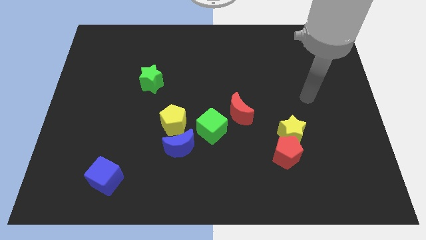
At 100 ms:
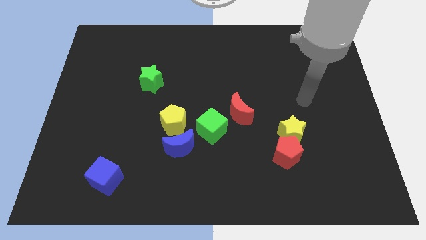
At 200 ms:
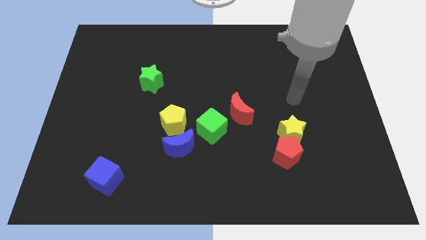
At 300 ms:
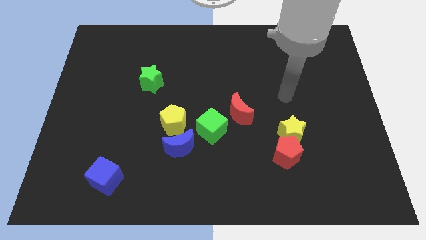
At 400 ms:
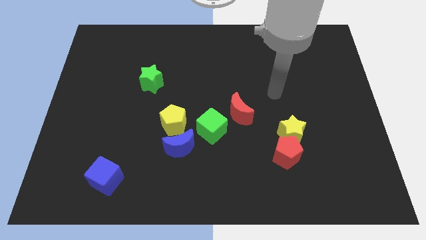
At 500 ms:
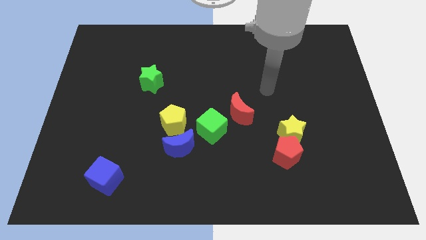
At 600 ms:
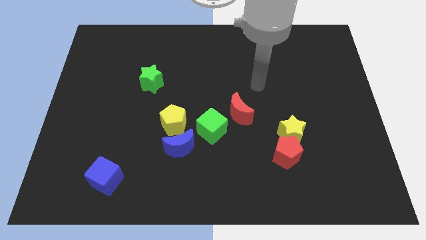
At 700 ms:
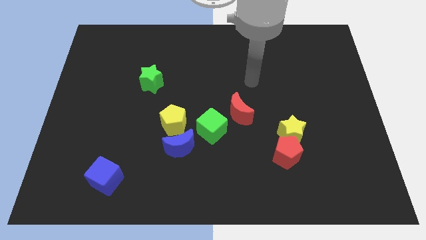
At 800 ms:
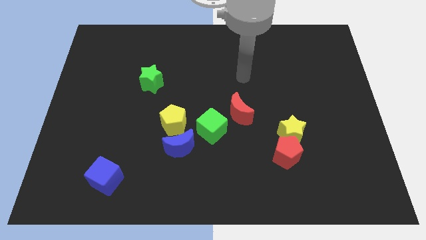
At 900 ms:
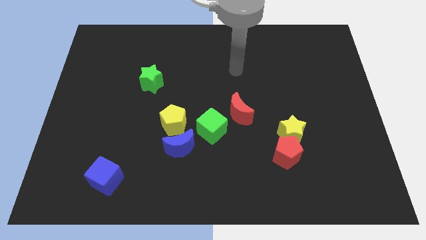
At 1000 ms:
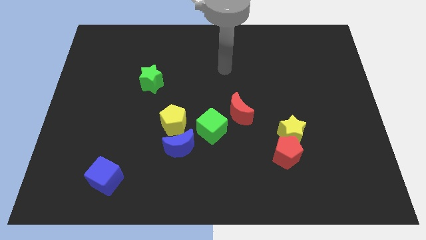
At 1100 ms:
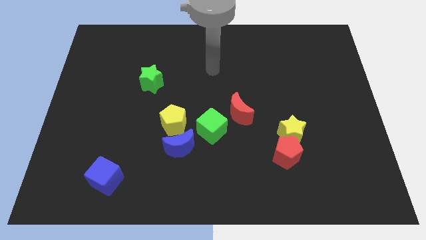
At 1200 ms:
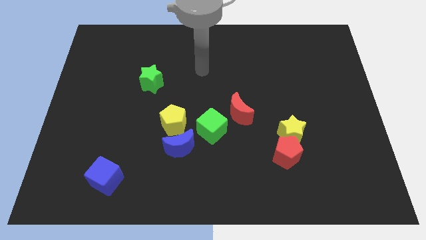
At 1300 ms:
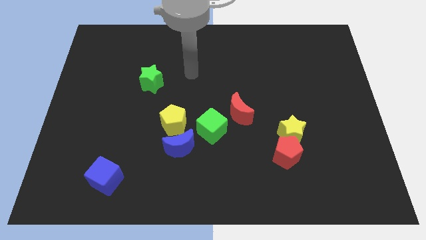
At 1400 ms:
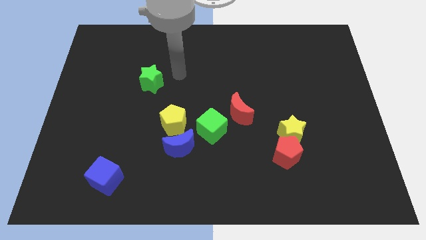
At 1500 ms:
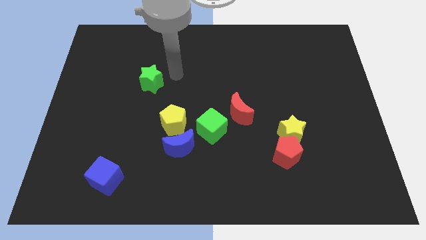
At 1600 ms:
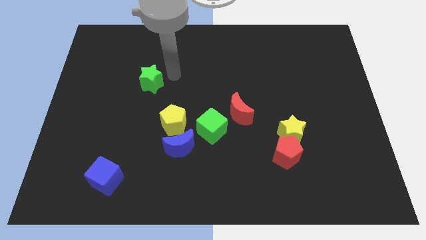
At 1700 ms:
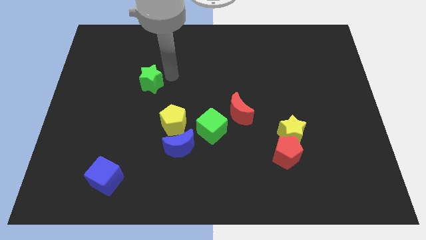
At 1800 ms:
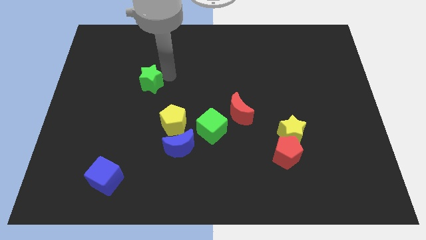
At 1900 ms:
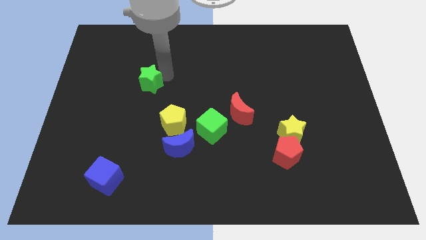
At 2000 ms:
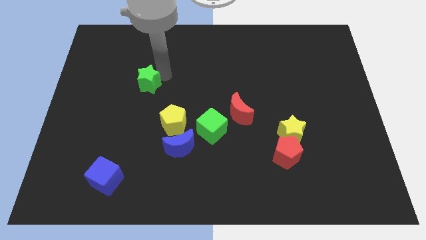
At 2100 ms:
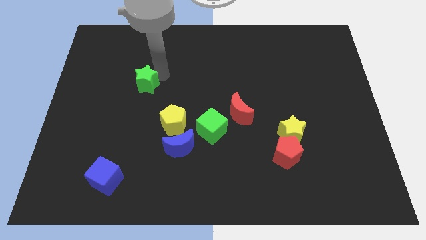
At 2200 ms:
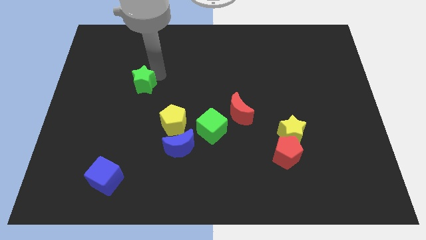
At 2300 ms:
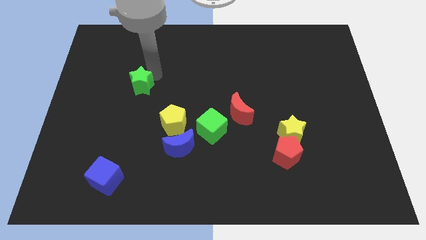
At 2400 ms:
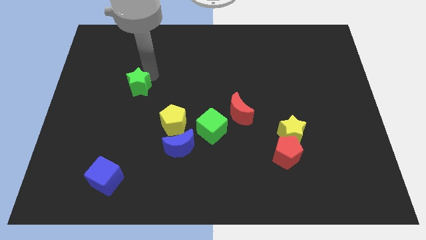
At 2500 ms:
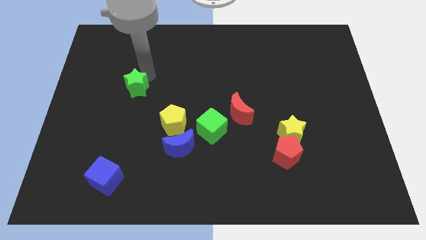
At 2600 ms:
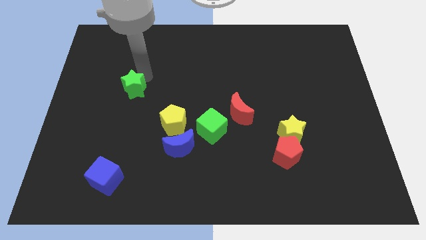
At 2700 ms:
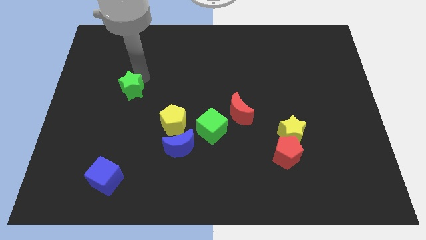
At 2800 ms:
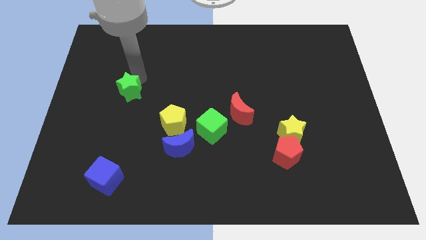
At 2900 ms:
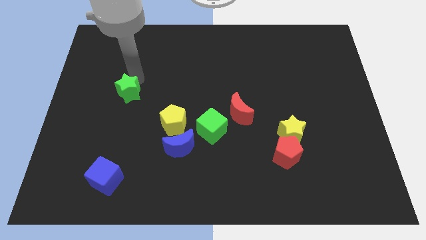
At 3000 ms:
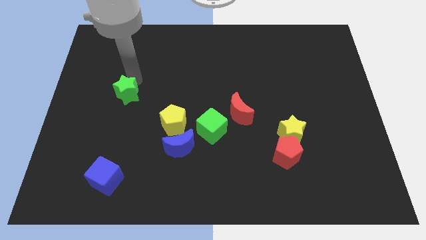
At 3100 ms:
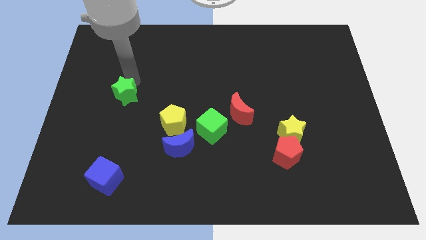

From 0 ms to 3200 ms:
move the green star diagonally down and left a little bit

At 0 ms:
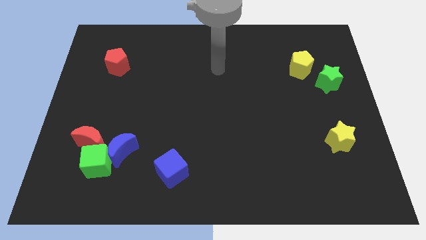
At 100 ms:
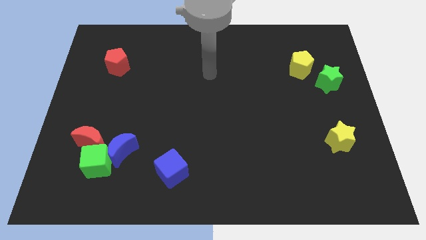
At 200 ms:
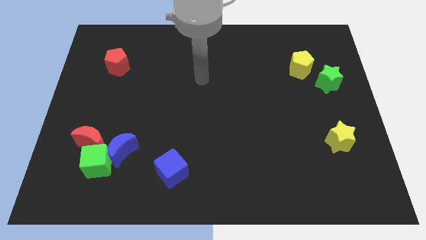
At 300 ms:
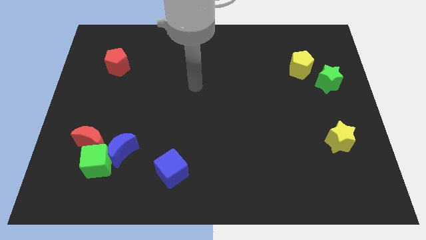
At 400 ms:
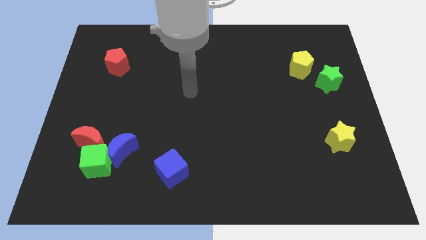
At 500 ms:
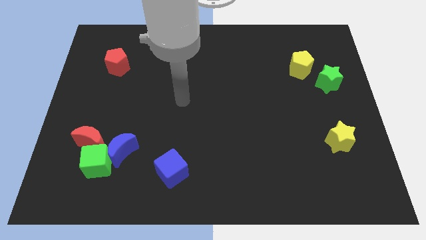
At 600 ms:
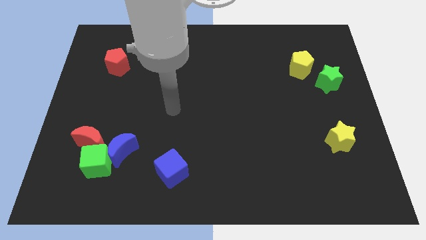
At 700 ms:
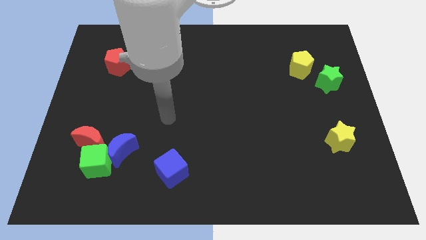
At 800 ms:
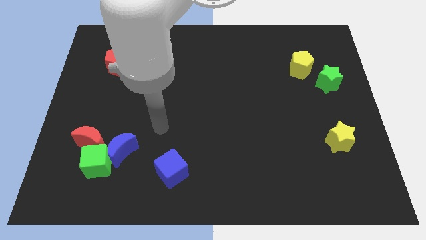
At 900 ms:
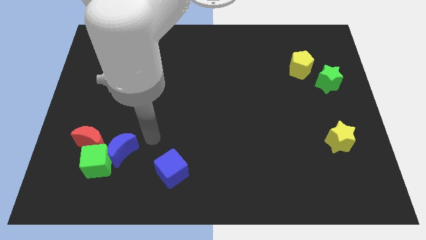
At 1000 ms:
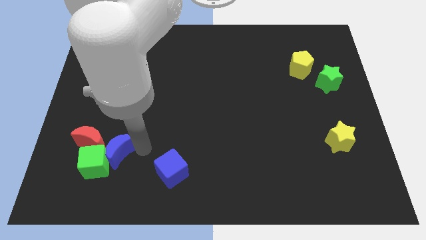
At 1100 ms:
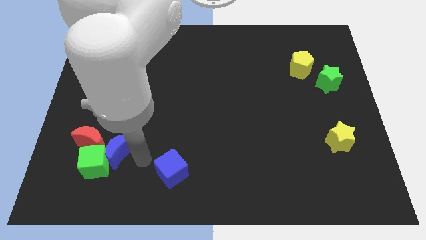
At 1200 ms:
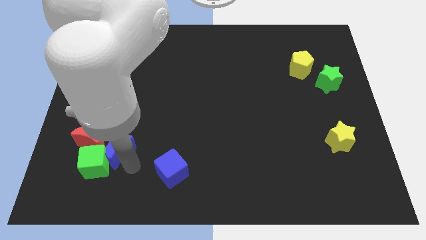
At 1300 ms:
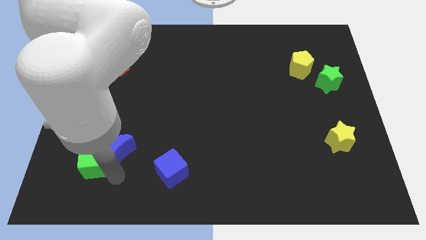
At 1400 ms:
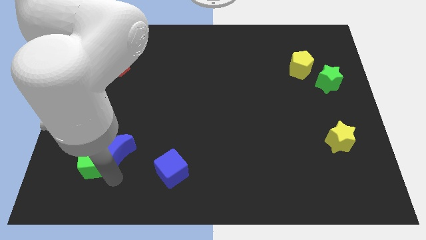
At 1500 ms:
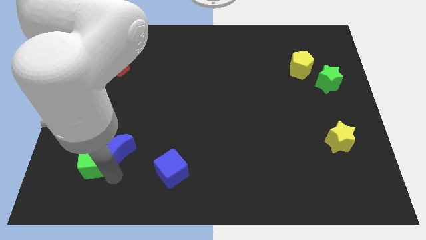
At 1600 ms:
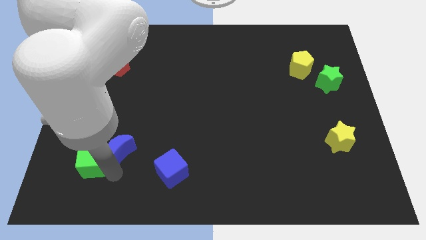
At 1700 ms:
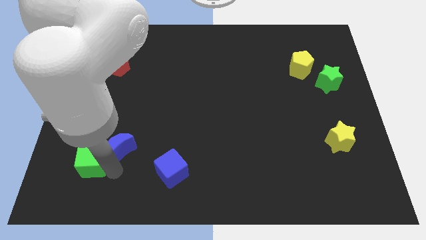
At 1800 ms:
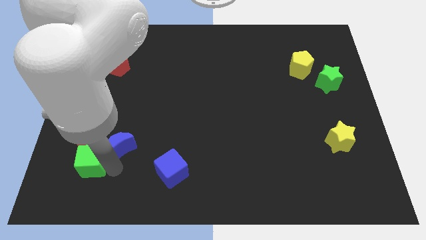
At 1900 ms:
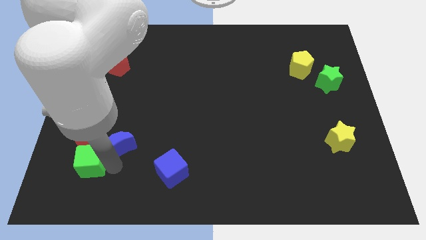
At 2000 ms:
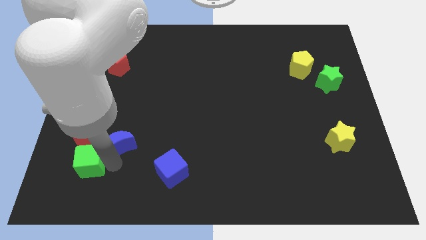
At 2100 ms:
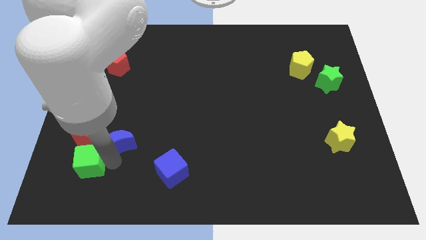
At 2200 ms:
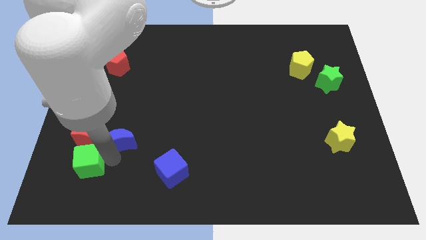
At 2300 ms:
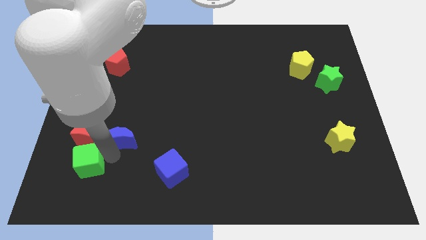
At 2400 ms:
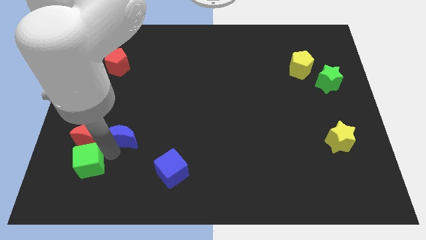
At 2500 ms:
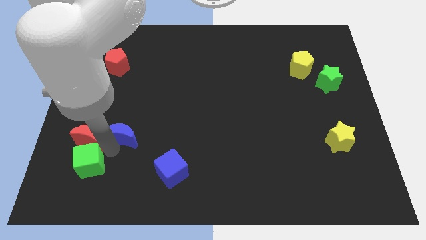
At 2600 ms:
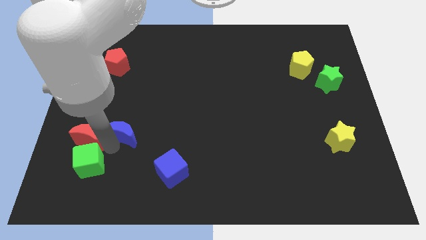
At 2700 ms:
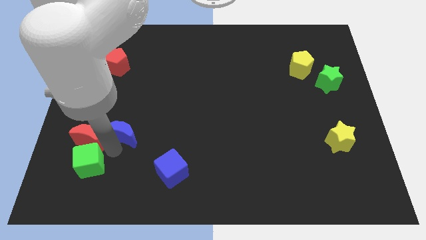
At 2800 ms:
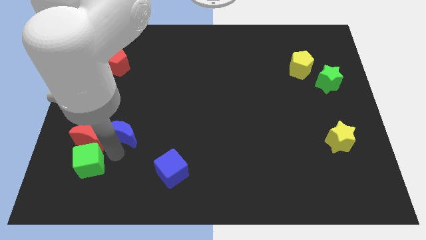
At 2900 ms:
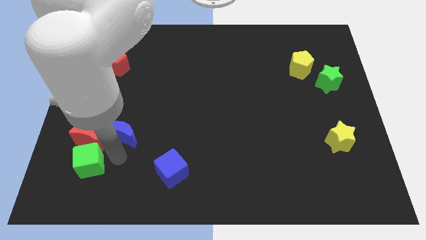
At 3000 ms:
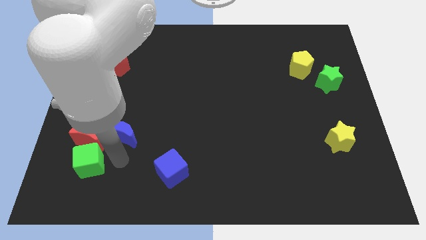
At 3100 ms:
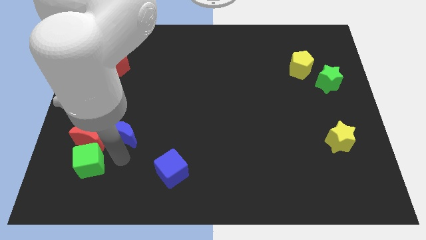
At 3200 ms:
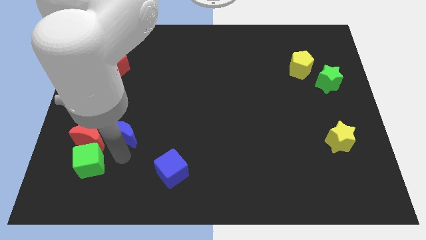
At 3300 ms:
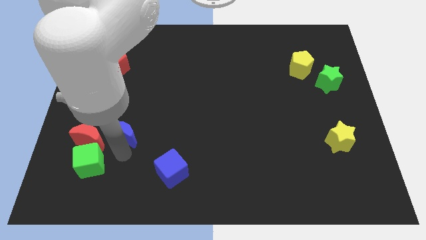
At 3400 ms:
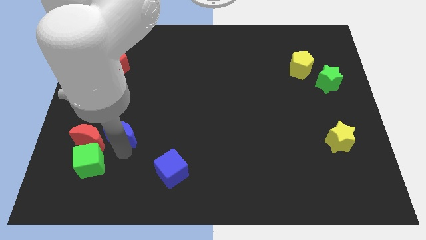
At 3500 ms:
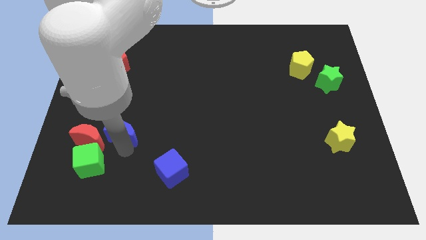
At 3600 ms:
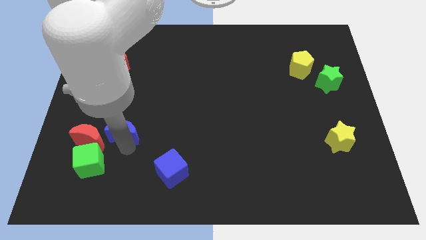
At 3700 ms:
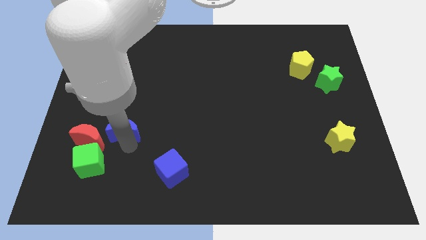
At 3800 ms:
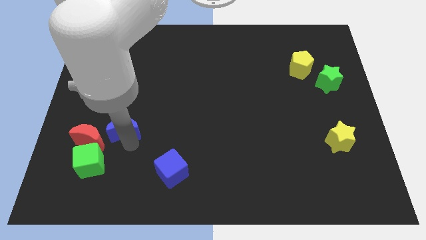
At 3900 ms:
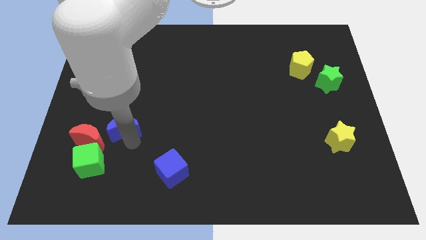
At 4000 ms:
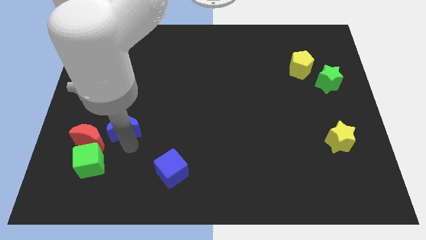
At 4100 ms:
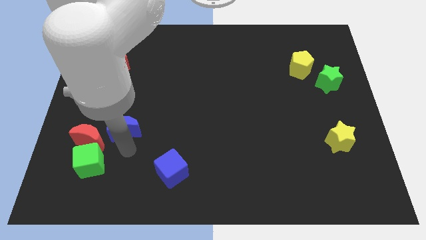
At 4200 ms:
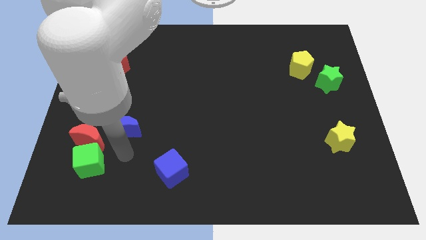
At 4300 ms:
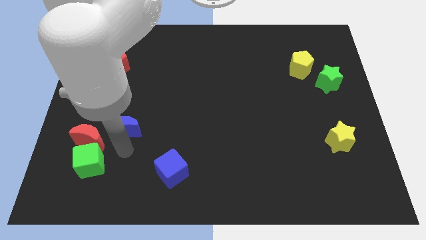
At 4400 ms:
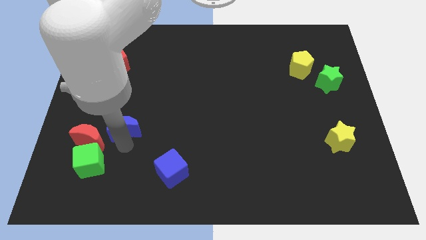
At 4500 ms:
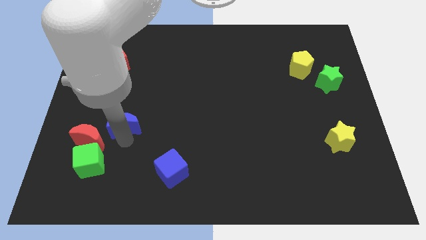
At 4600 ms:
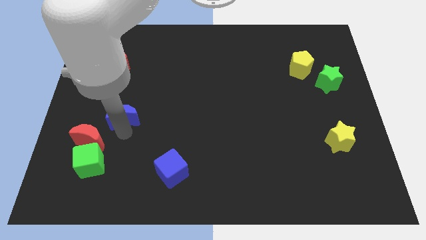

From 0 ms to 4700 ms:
slightly push the blue moon upwards

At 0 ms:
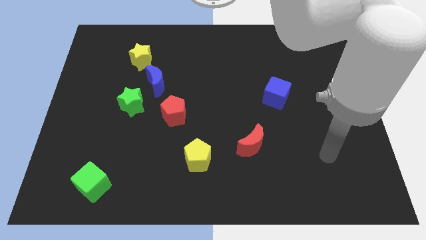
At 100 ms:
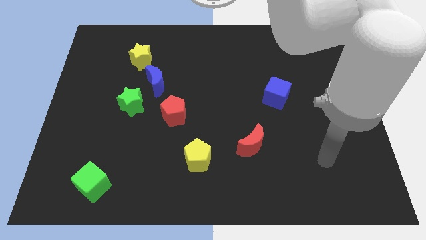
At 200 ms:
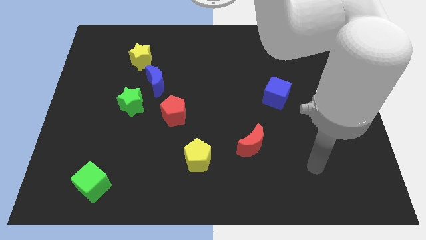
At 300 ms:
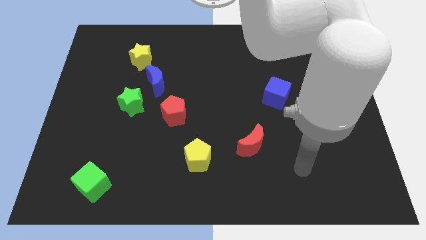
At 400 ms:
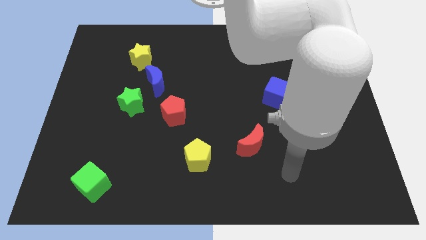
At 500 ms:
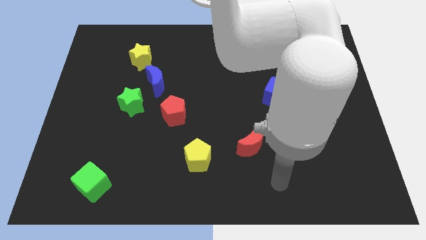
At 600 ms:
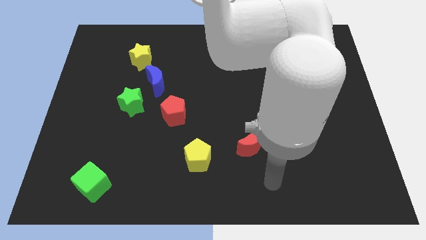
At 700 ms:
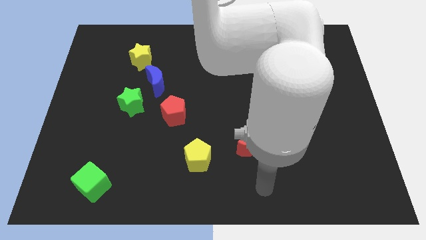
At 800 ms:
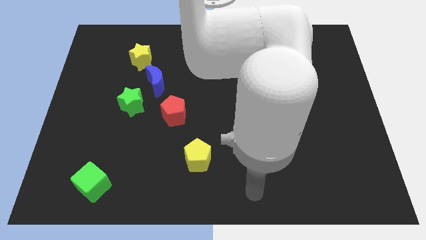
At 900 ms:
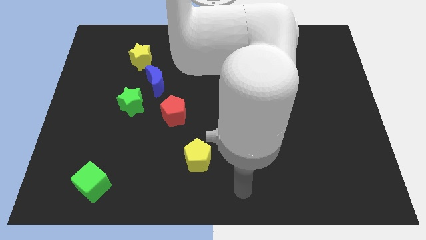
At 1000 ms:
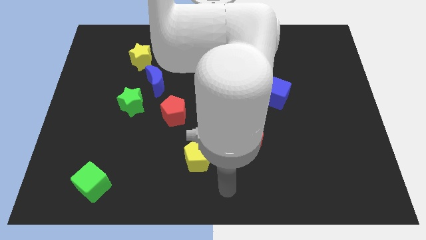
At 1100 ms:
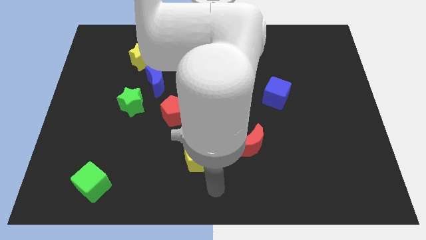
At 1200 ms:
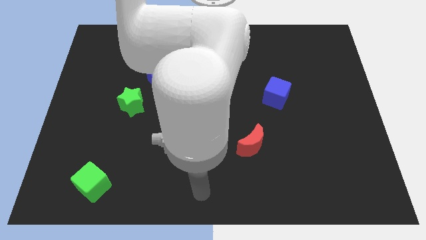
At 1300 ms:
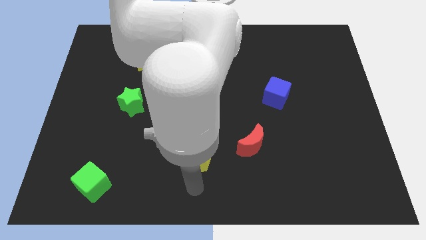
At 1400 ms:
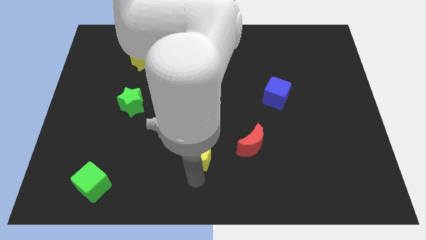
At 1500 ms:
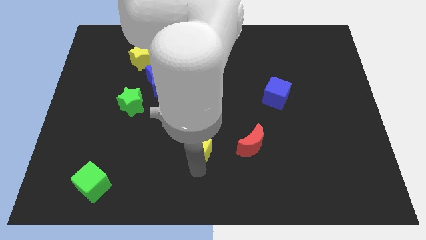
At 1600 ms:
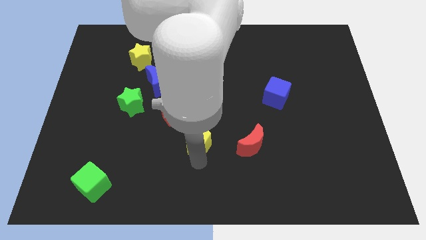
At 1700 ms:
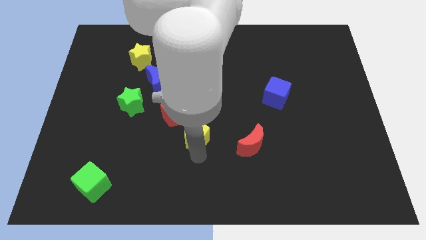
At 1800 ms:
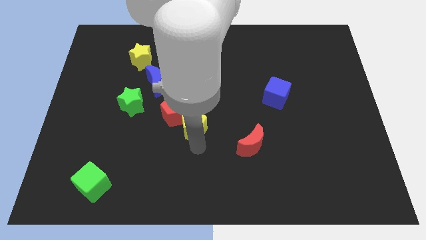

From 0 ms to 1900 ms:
slightly push the yellow pentagon upwards
